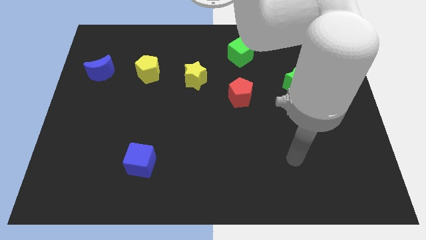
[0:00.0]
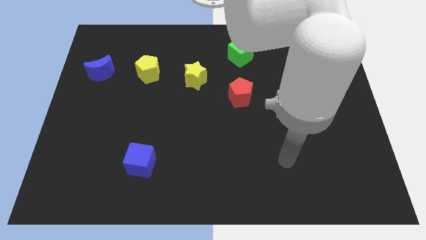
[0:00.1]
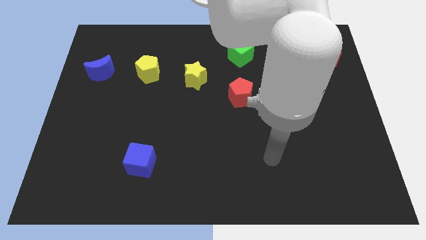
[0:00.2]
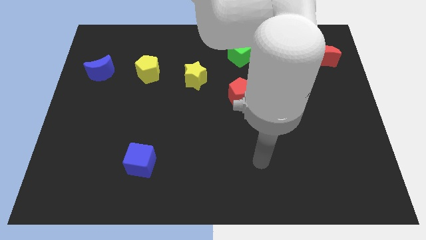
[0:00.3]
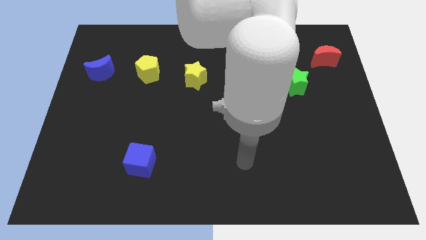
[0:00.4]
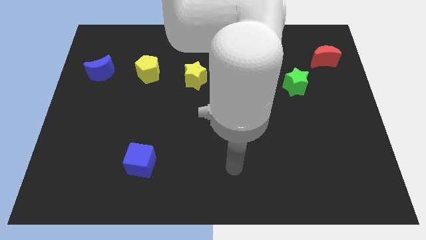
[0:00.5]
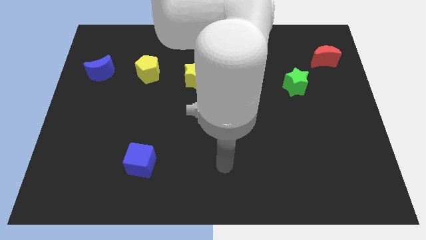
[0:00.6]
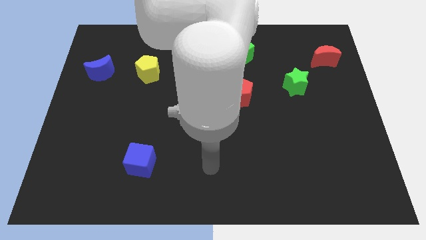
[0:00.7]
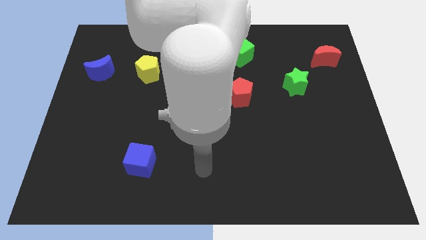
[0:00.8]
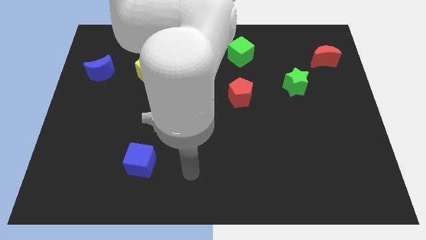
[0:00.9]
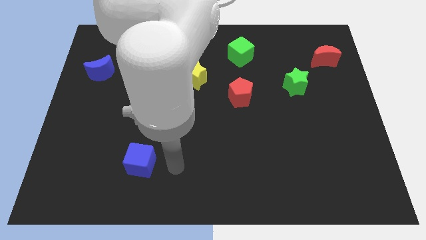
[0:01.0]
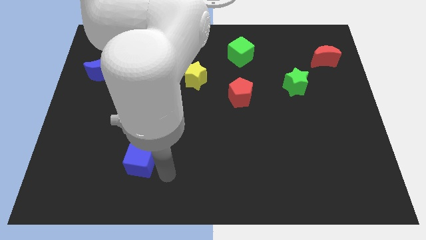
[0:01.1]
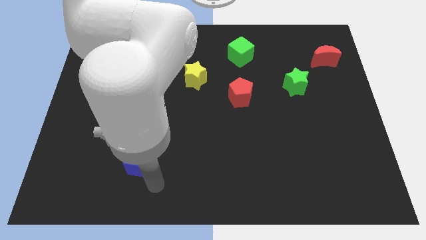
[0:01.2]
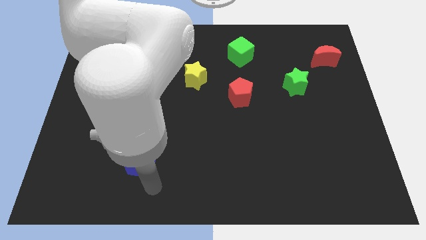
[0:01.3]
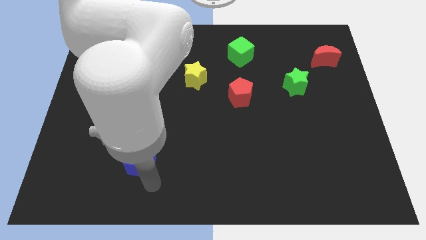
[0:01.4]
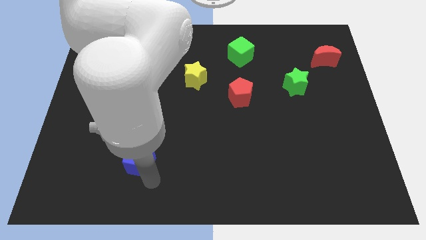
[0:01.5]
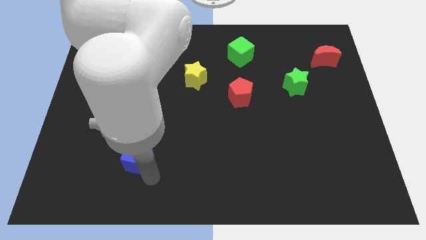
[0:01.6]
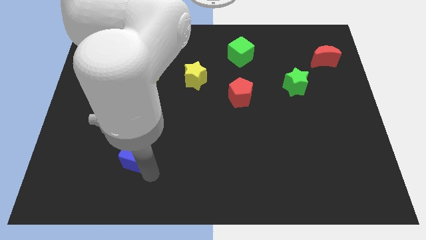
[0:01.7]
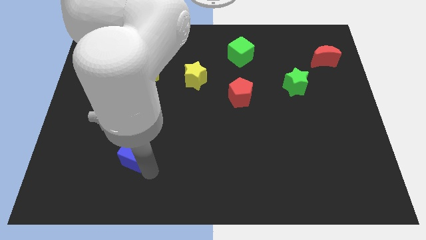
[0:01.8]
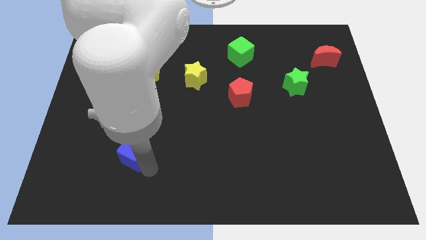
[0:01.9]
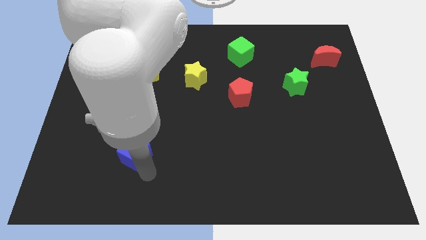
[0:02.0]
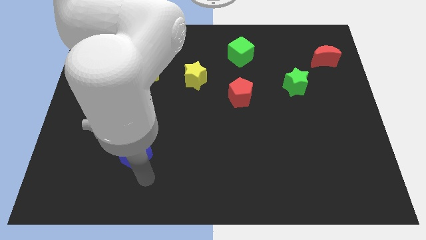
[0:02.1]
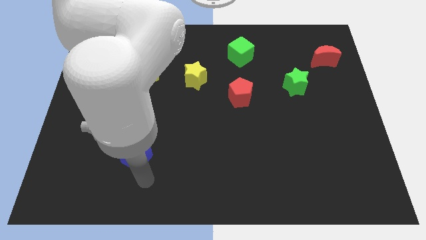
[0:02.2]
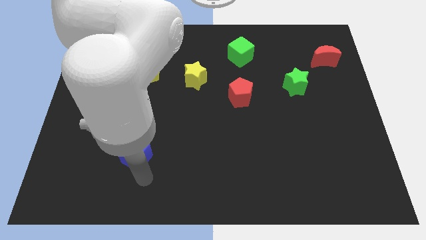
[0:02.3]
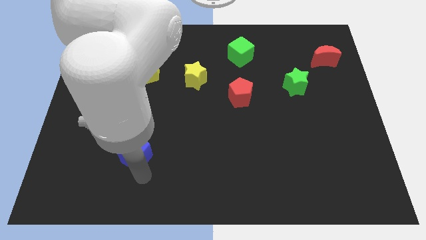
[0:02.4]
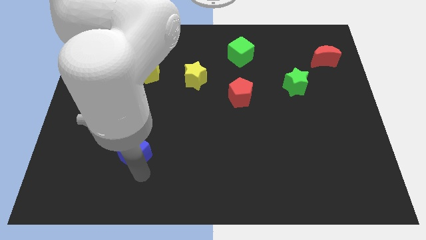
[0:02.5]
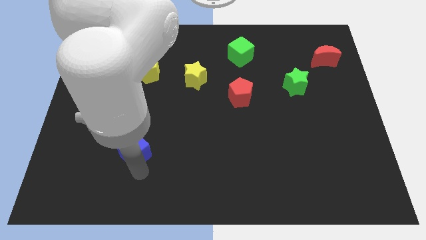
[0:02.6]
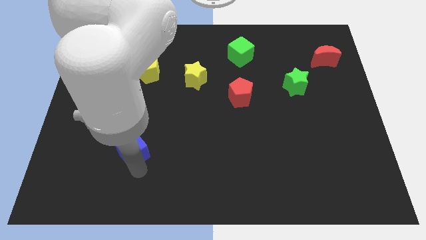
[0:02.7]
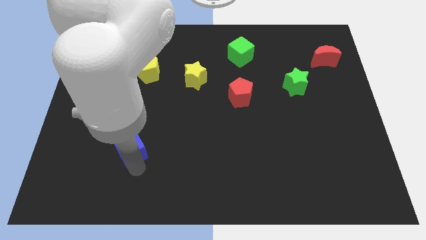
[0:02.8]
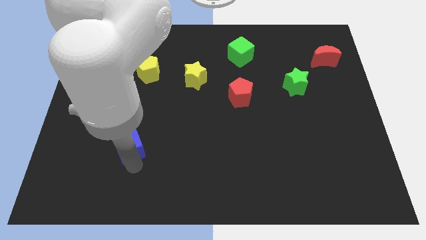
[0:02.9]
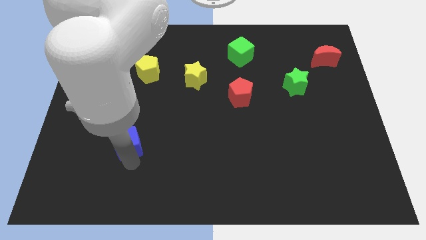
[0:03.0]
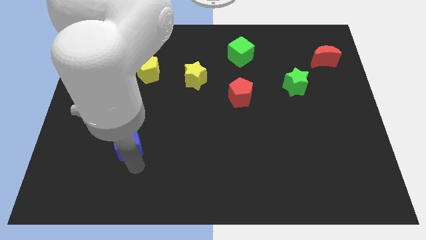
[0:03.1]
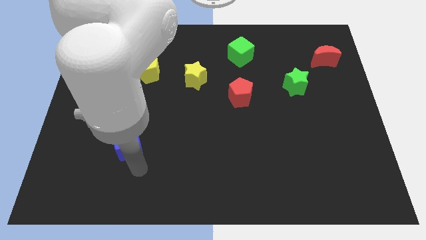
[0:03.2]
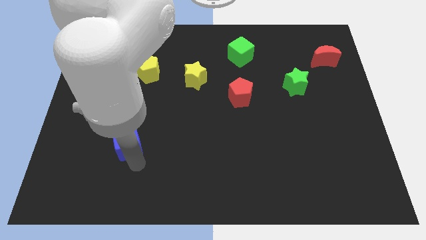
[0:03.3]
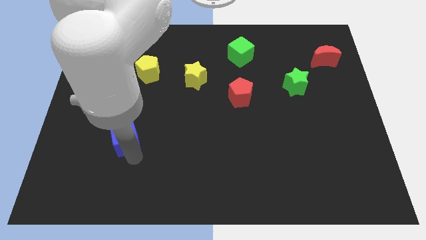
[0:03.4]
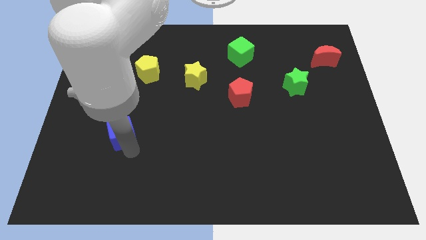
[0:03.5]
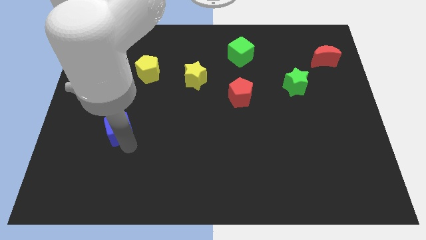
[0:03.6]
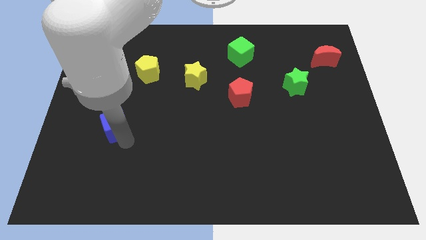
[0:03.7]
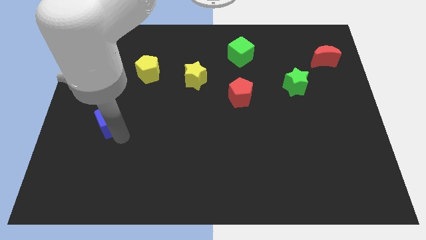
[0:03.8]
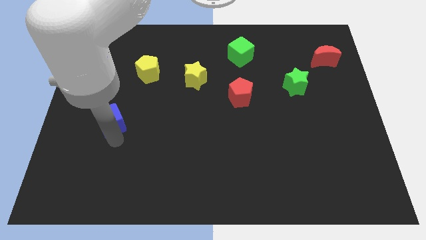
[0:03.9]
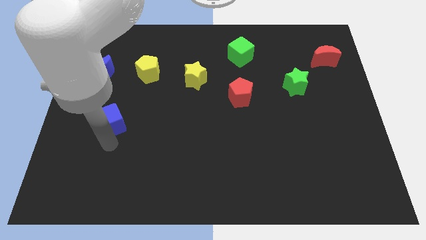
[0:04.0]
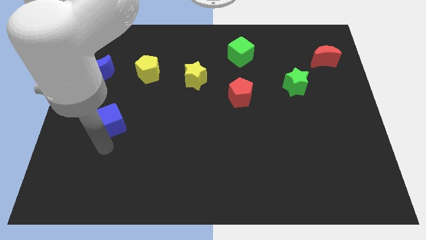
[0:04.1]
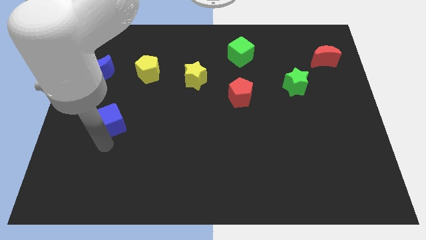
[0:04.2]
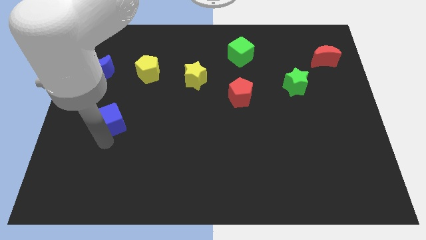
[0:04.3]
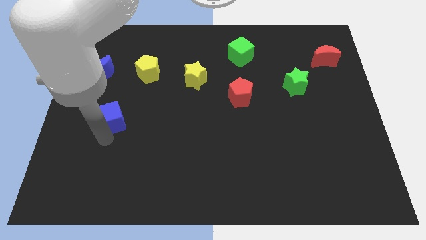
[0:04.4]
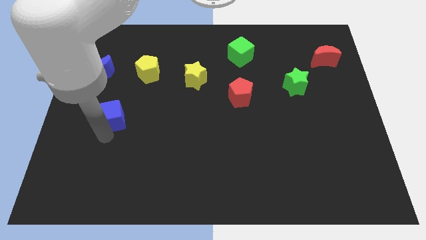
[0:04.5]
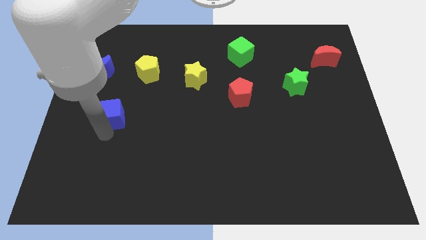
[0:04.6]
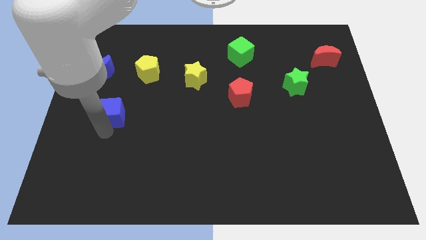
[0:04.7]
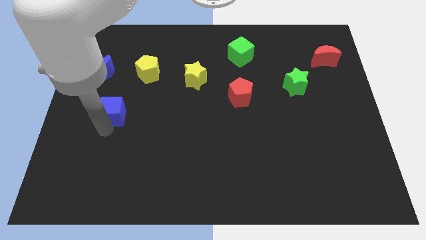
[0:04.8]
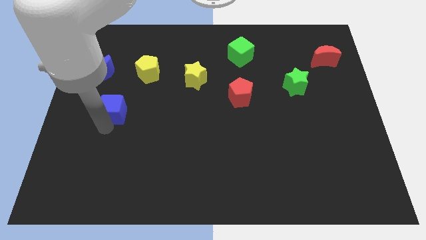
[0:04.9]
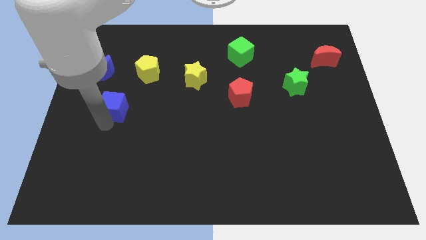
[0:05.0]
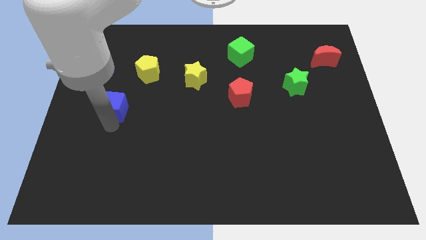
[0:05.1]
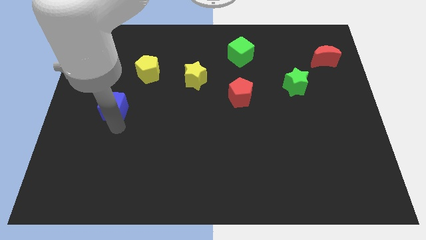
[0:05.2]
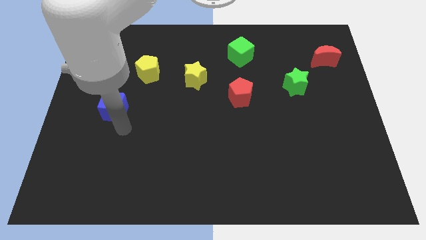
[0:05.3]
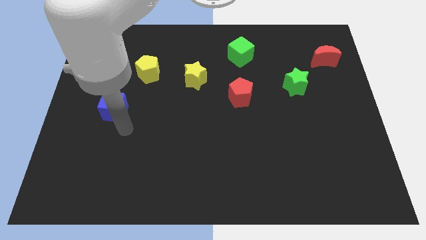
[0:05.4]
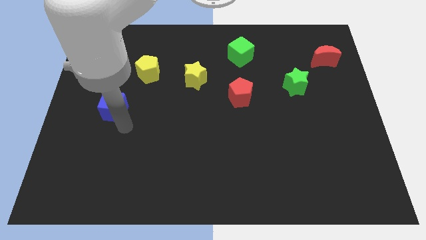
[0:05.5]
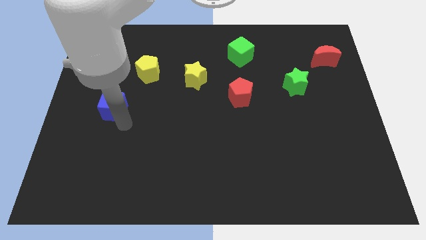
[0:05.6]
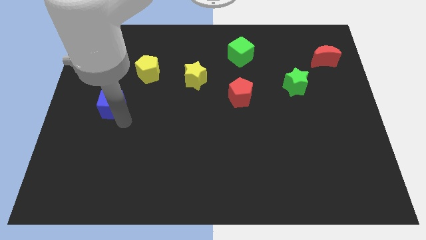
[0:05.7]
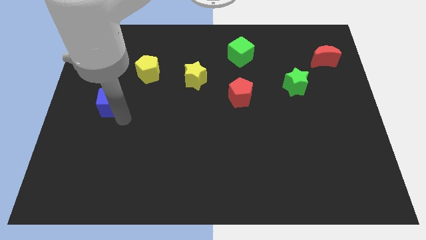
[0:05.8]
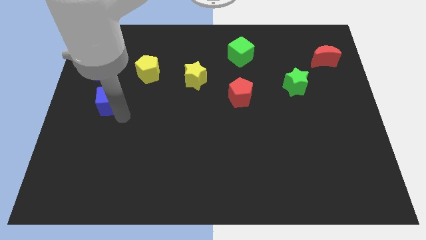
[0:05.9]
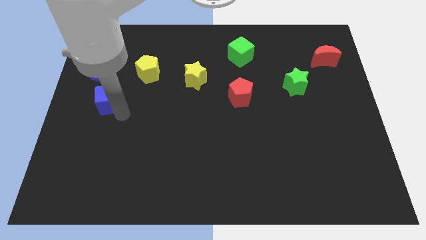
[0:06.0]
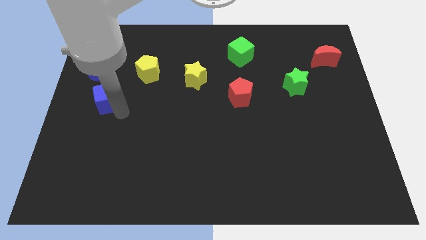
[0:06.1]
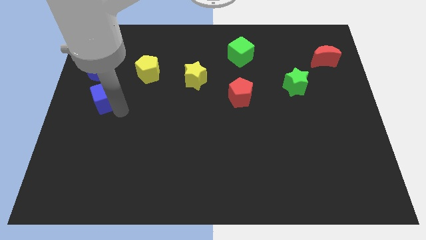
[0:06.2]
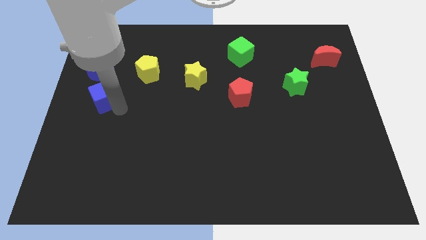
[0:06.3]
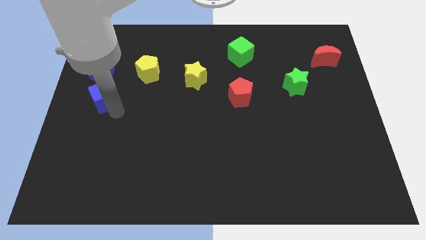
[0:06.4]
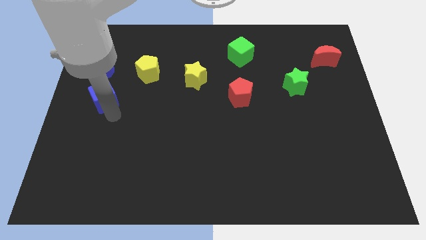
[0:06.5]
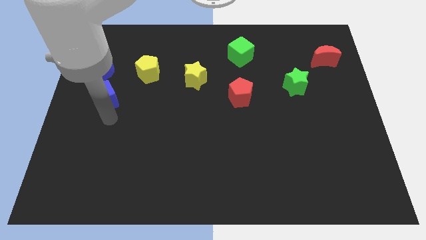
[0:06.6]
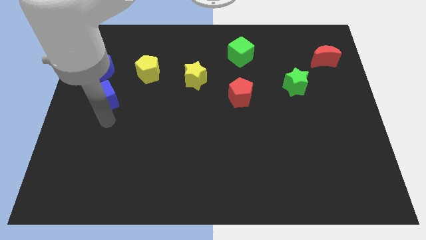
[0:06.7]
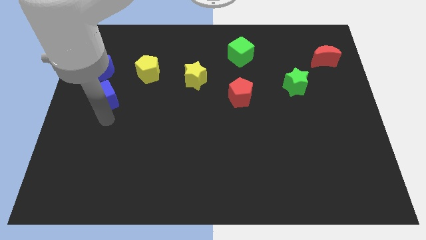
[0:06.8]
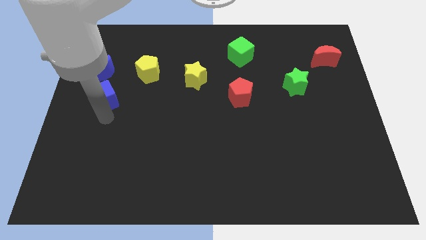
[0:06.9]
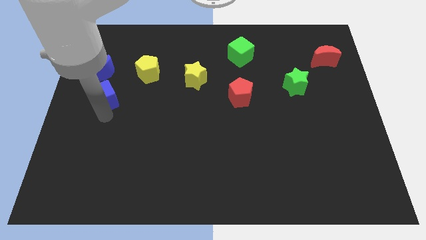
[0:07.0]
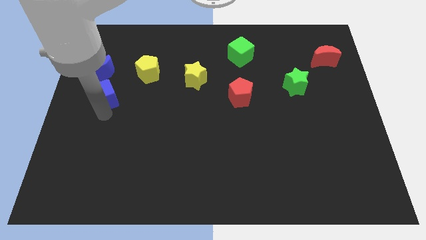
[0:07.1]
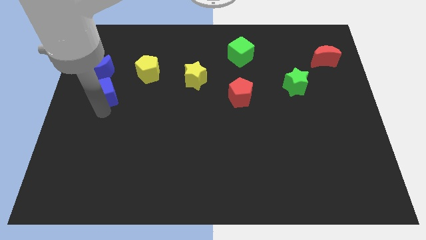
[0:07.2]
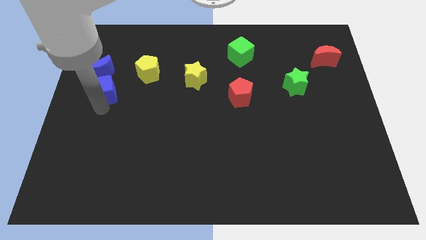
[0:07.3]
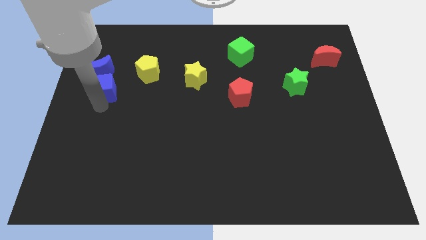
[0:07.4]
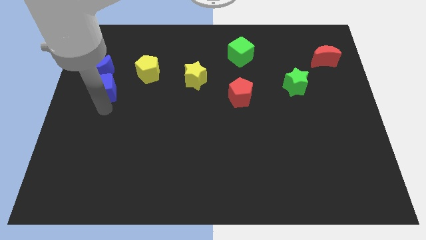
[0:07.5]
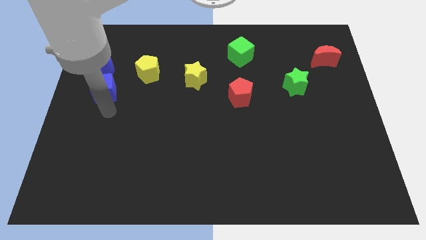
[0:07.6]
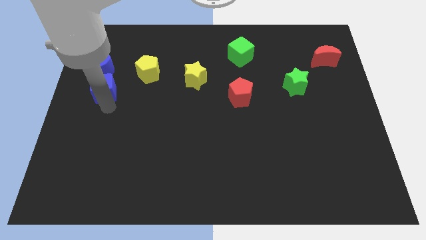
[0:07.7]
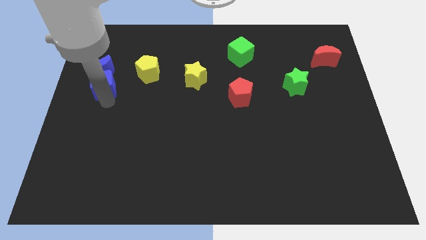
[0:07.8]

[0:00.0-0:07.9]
slide the blue cube towards the blue moon
